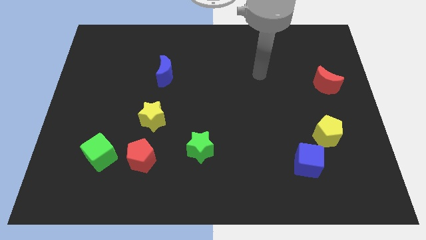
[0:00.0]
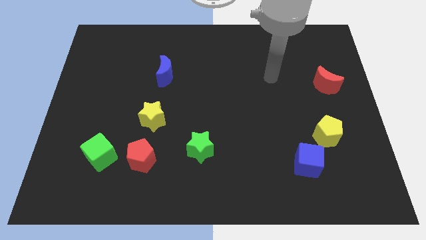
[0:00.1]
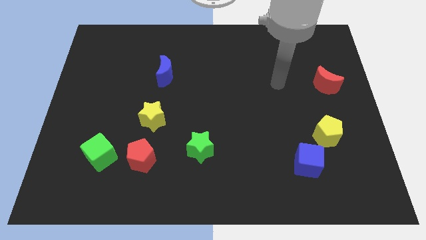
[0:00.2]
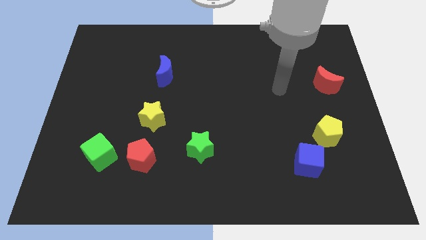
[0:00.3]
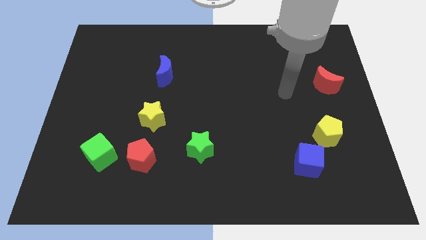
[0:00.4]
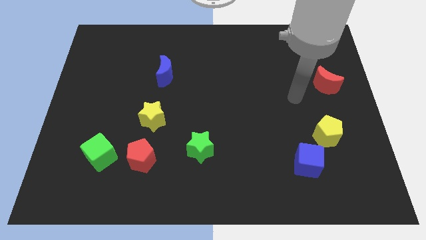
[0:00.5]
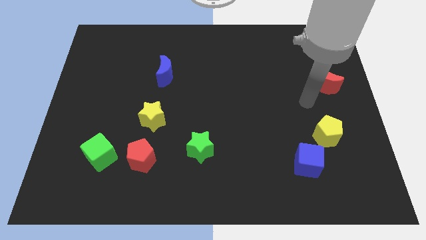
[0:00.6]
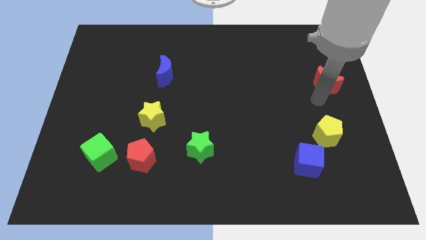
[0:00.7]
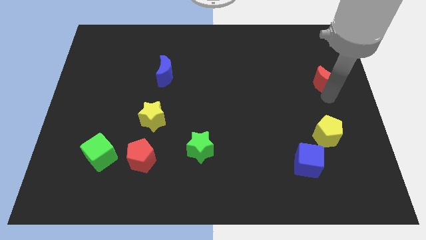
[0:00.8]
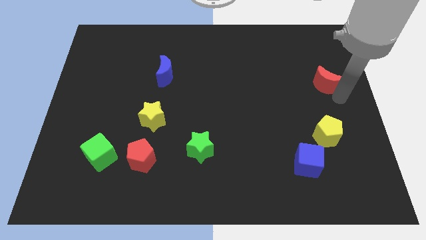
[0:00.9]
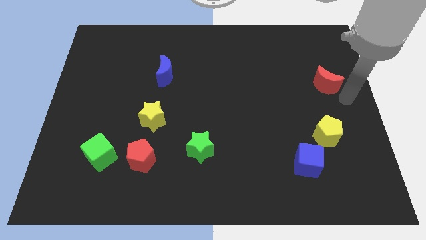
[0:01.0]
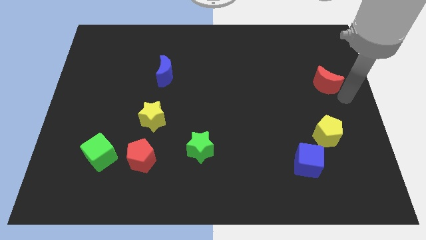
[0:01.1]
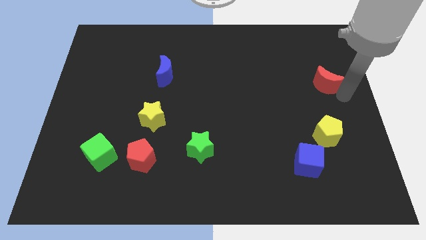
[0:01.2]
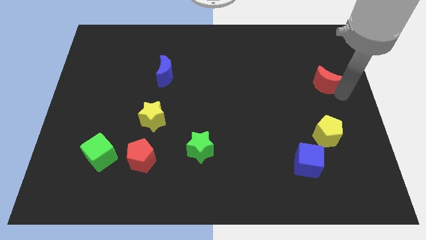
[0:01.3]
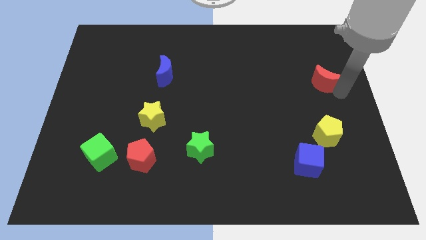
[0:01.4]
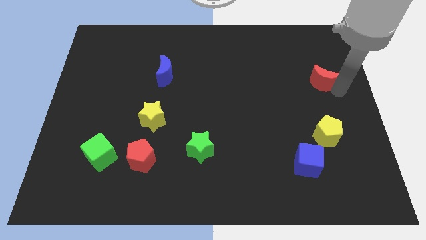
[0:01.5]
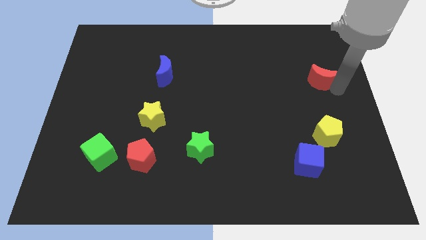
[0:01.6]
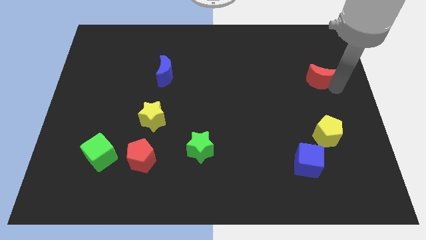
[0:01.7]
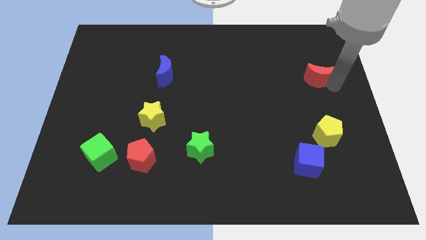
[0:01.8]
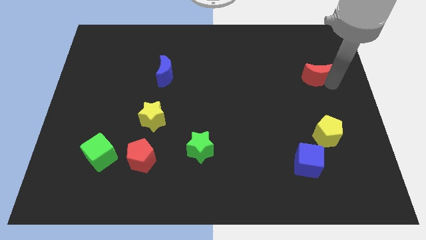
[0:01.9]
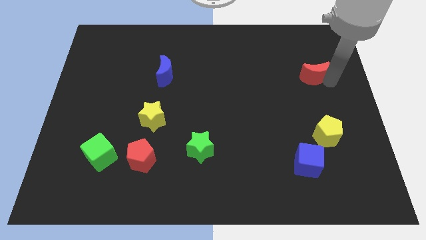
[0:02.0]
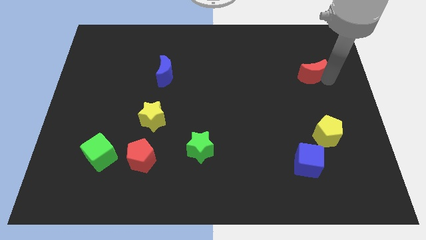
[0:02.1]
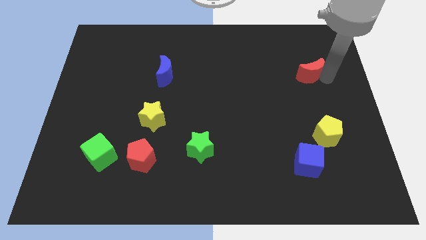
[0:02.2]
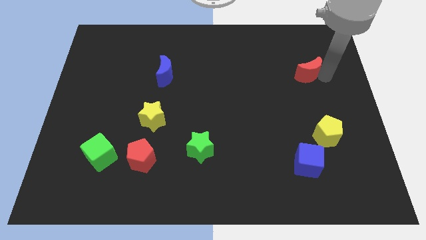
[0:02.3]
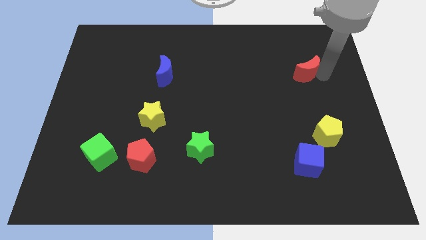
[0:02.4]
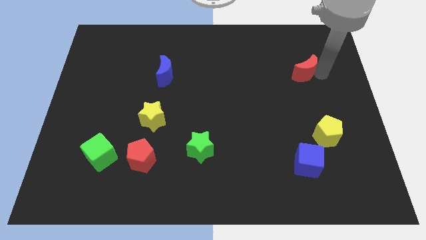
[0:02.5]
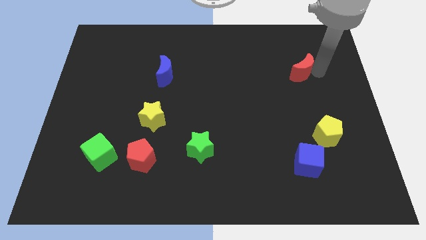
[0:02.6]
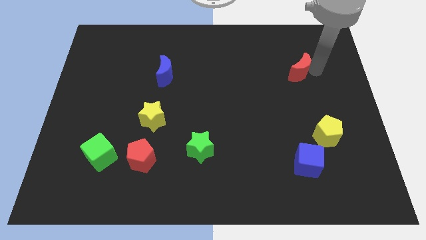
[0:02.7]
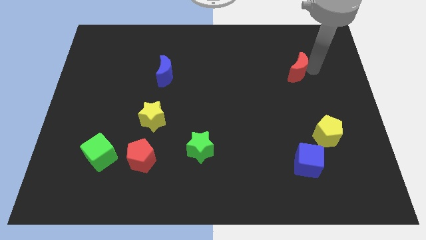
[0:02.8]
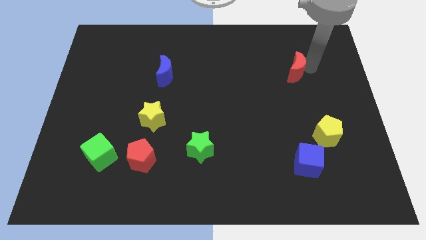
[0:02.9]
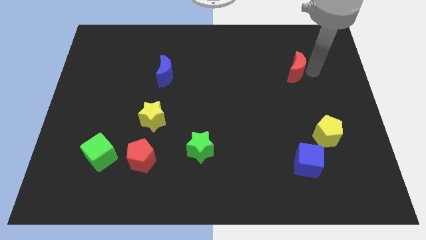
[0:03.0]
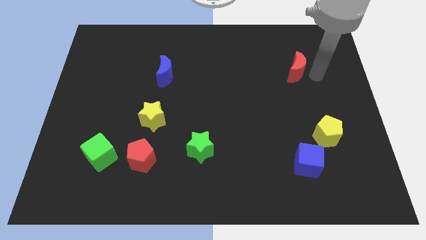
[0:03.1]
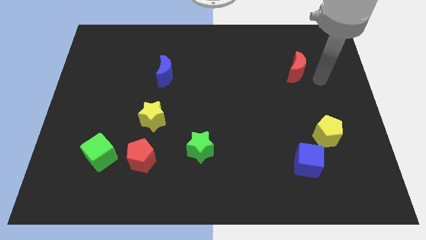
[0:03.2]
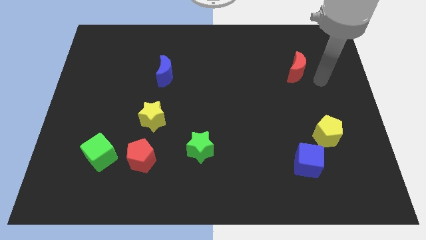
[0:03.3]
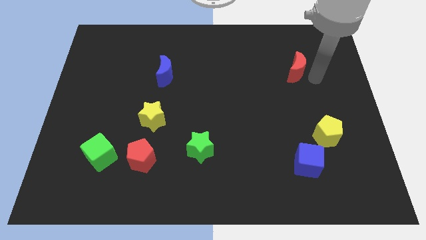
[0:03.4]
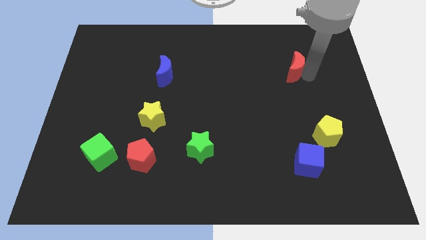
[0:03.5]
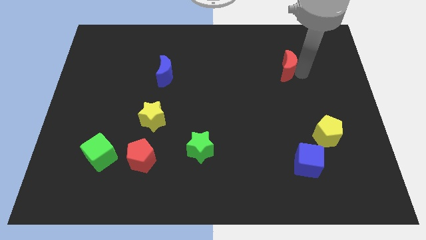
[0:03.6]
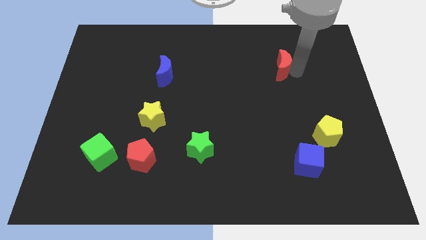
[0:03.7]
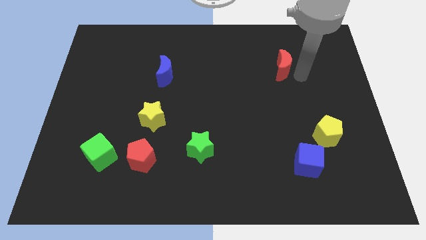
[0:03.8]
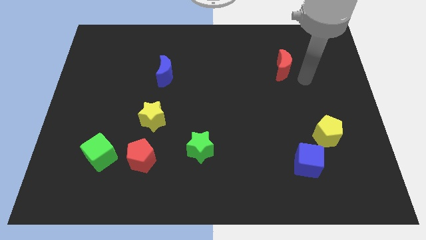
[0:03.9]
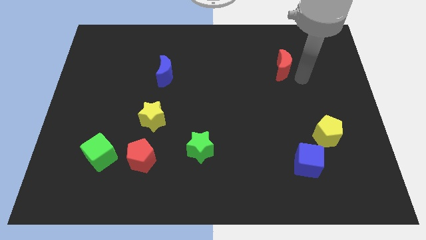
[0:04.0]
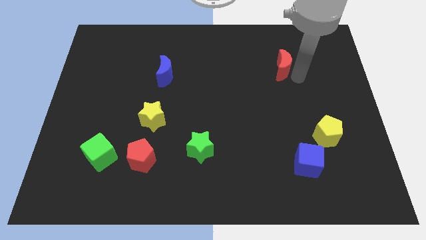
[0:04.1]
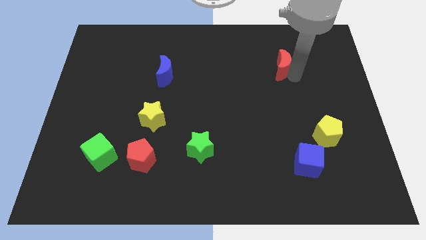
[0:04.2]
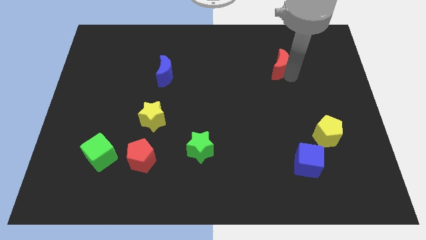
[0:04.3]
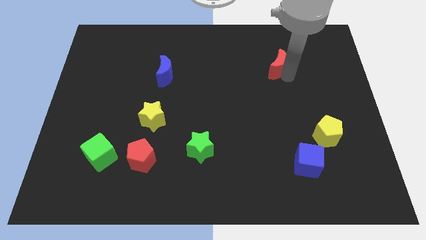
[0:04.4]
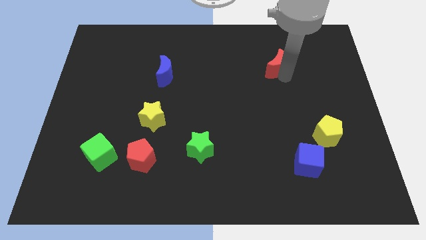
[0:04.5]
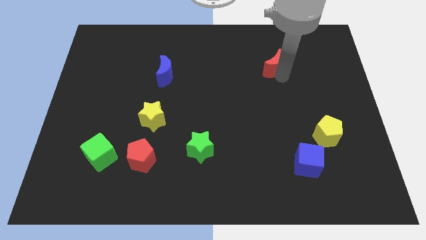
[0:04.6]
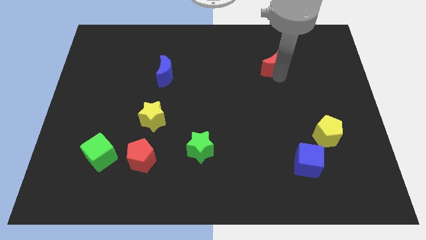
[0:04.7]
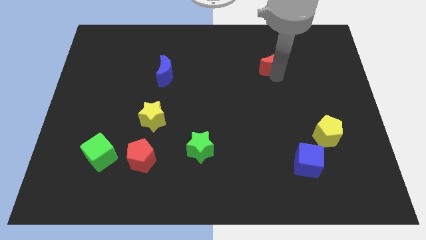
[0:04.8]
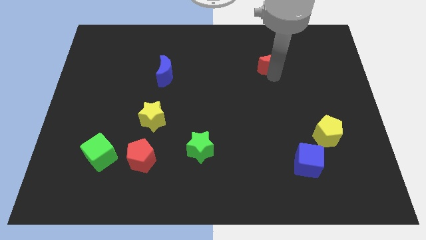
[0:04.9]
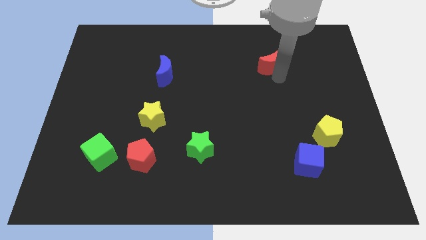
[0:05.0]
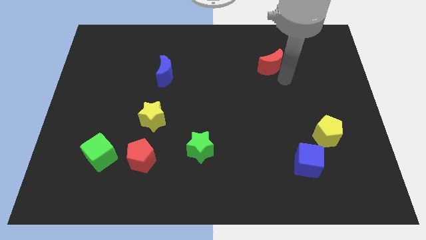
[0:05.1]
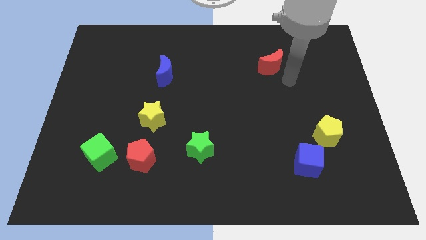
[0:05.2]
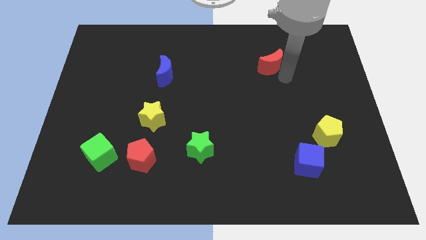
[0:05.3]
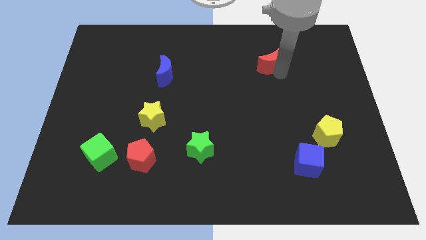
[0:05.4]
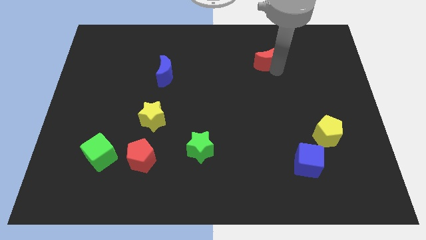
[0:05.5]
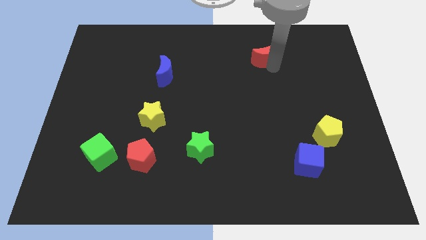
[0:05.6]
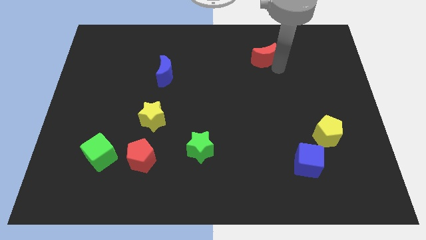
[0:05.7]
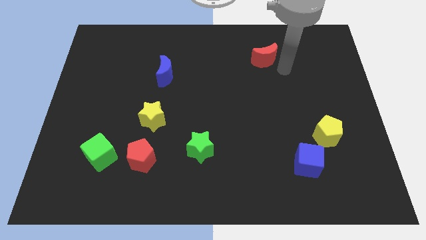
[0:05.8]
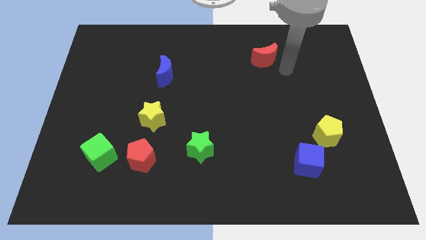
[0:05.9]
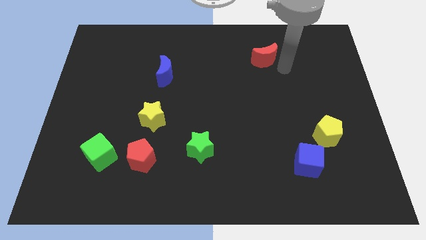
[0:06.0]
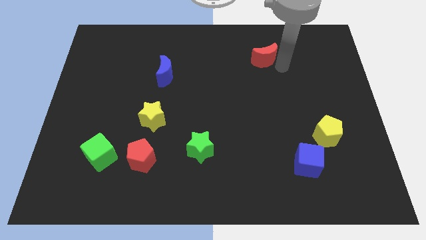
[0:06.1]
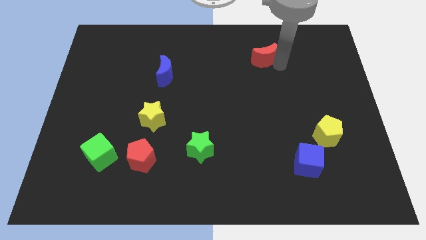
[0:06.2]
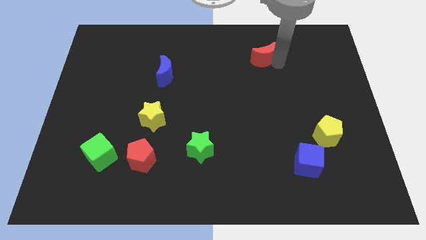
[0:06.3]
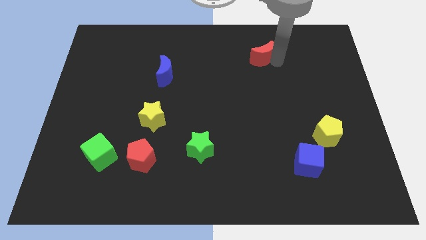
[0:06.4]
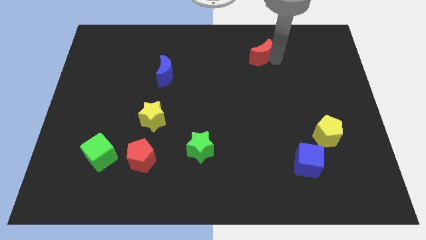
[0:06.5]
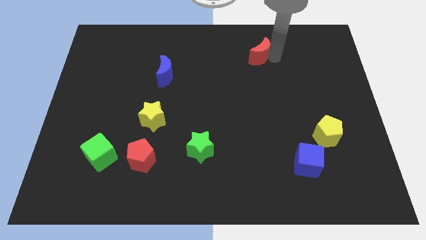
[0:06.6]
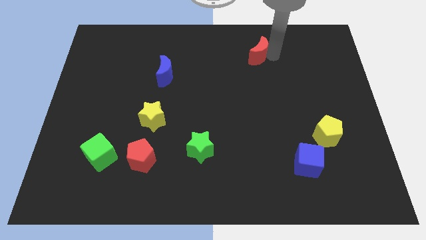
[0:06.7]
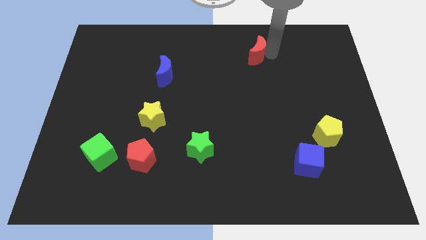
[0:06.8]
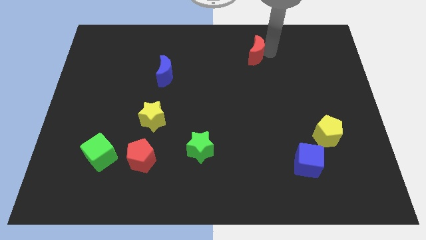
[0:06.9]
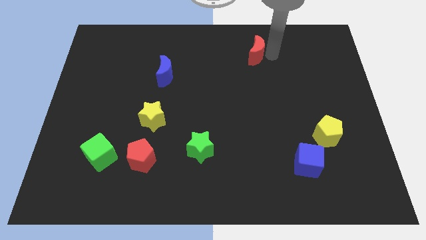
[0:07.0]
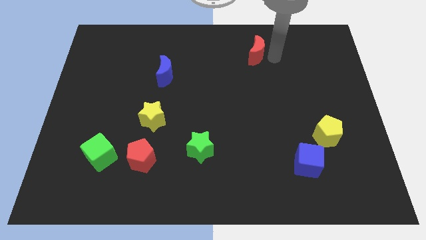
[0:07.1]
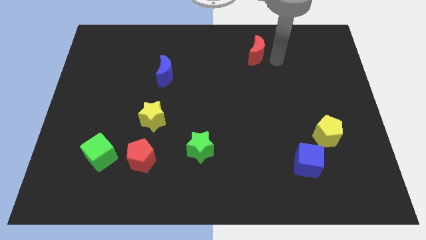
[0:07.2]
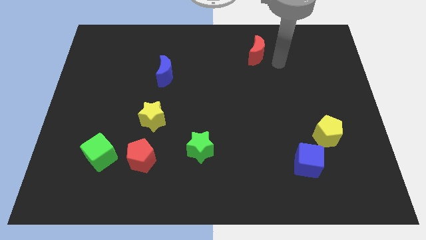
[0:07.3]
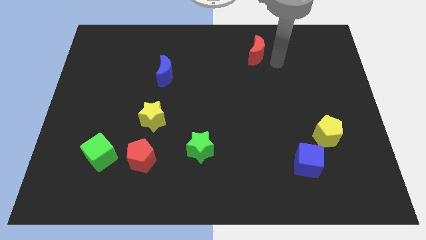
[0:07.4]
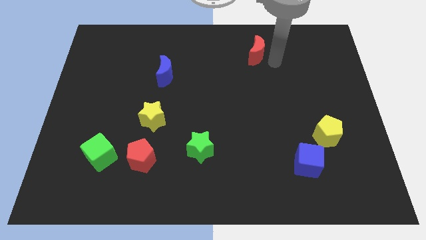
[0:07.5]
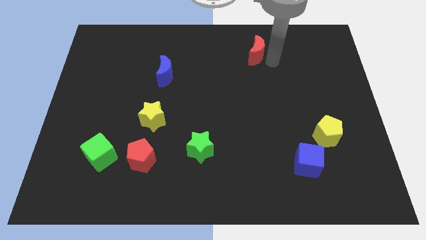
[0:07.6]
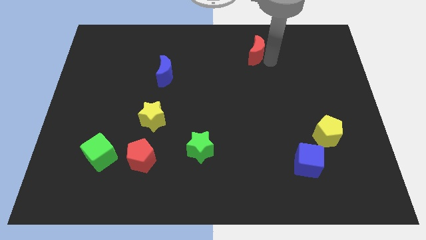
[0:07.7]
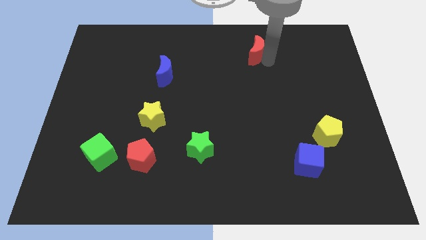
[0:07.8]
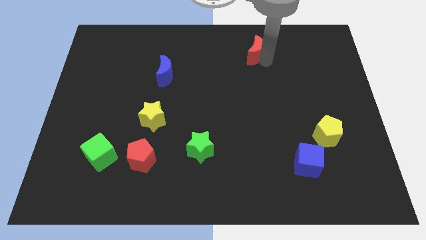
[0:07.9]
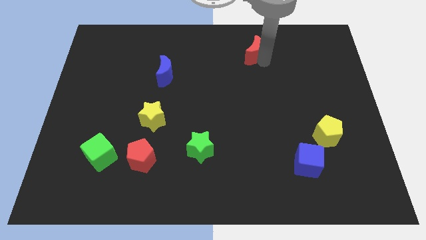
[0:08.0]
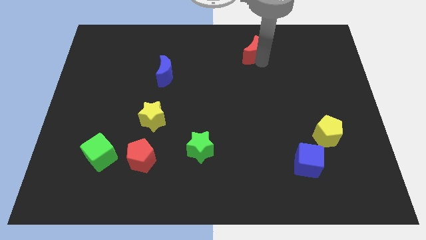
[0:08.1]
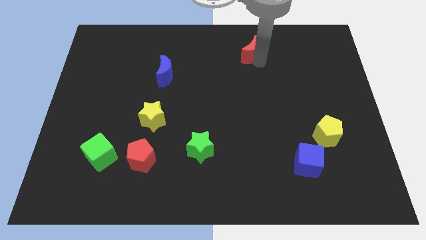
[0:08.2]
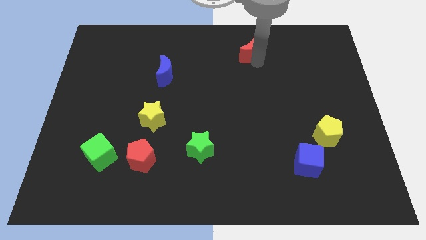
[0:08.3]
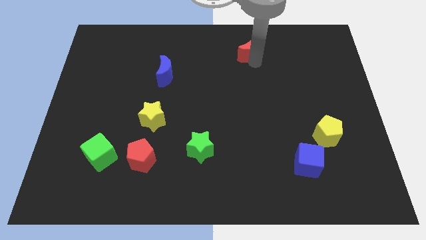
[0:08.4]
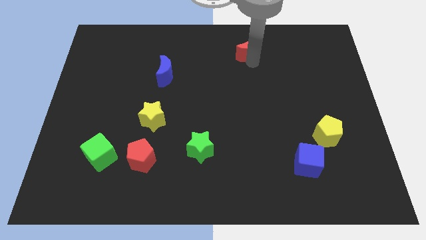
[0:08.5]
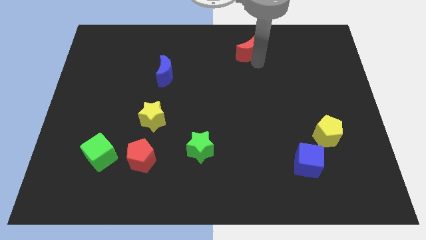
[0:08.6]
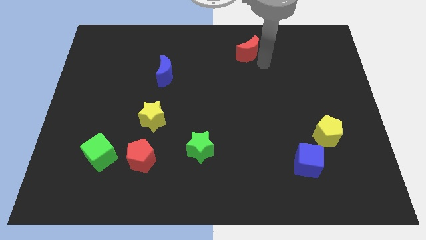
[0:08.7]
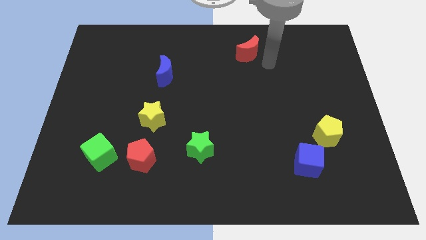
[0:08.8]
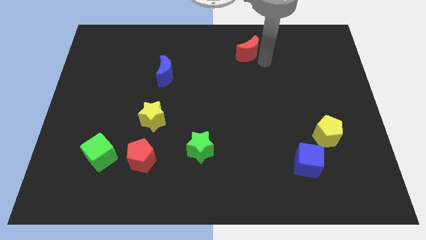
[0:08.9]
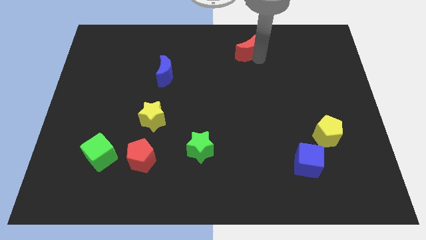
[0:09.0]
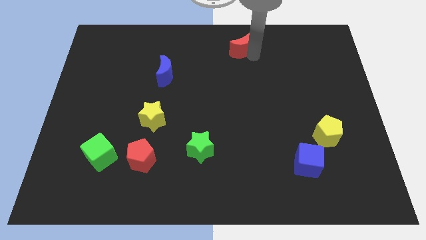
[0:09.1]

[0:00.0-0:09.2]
put the red moon to the towards your base
